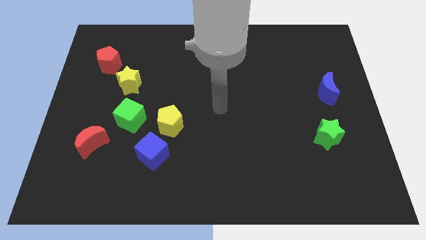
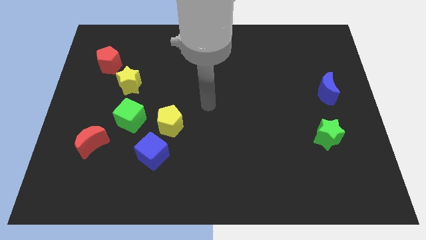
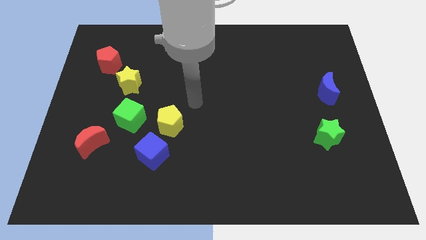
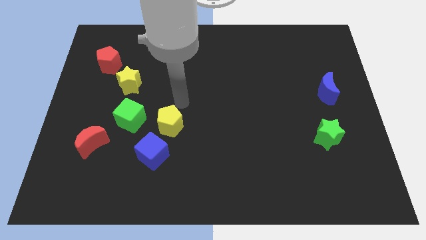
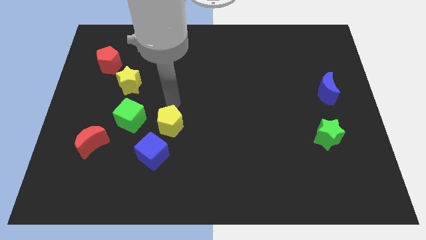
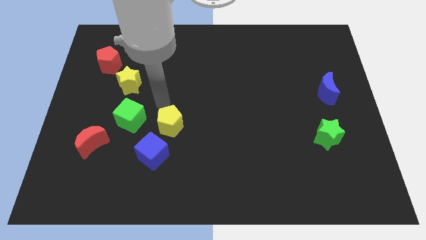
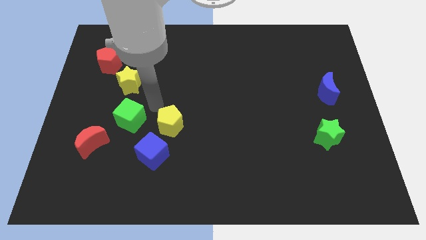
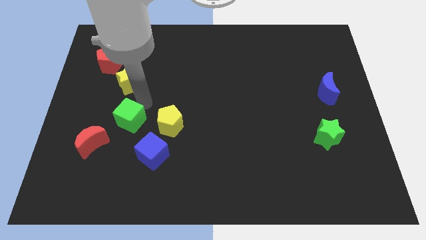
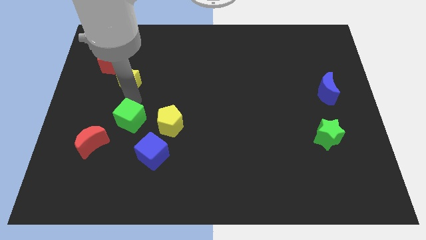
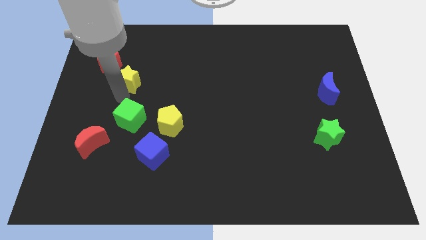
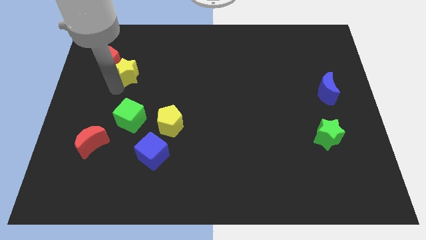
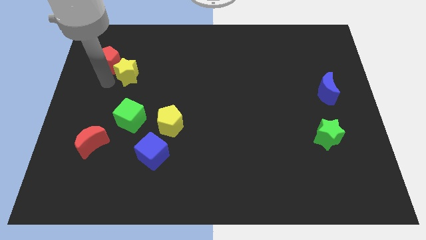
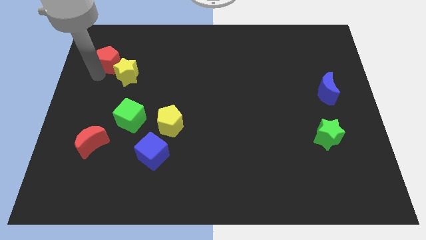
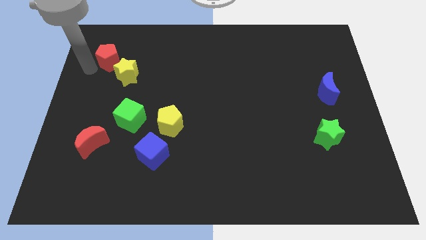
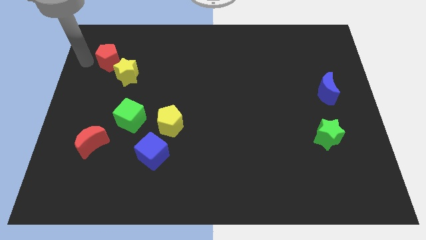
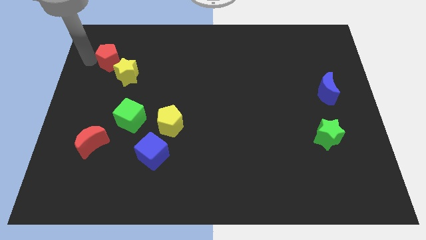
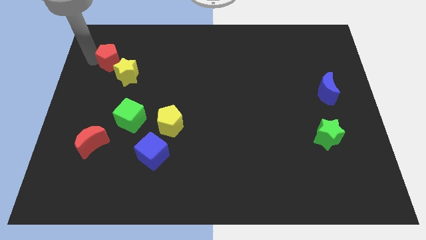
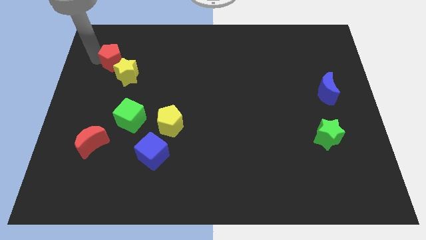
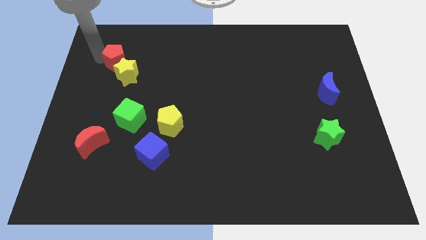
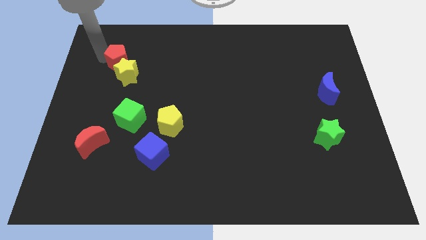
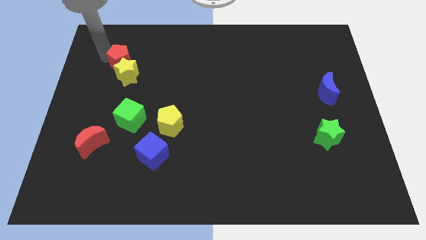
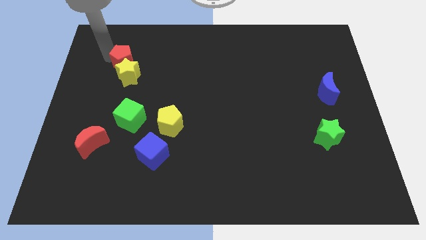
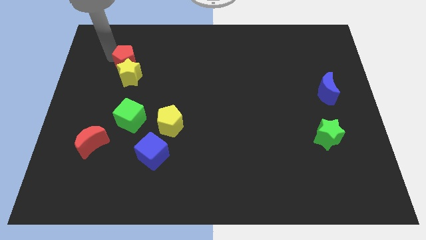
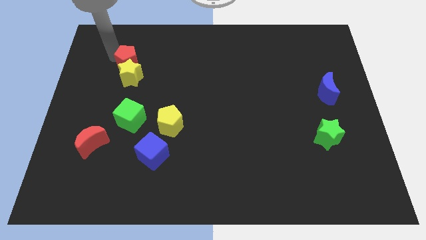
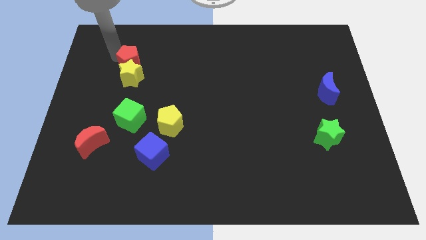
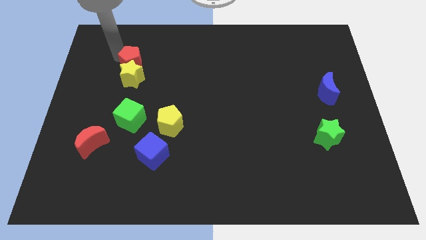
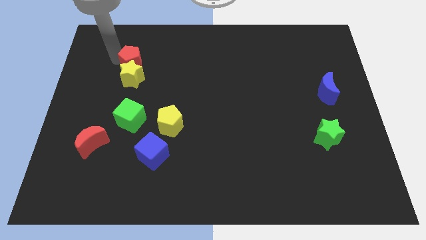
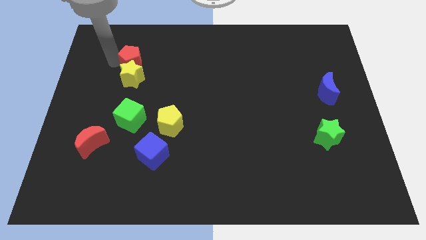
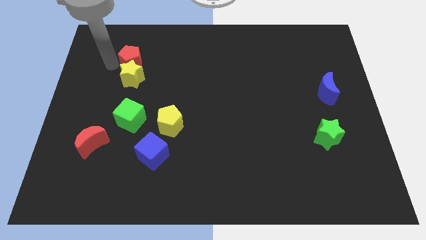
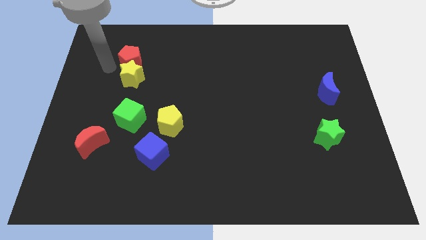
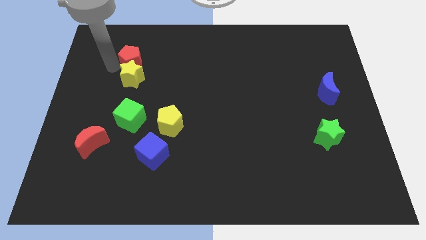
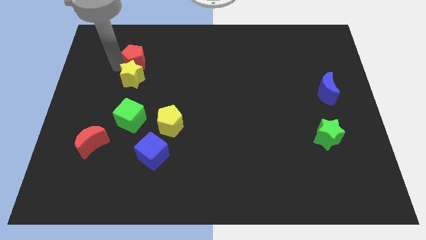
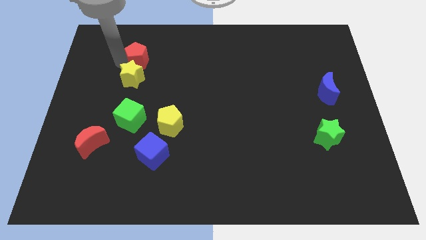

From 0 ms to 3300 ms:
slightly move the red pentagon right

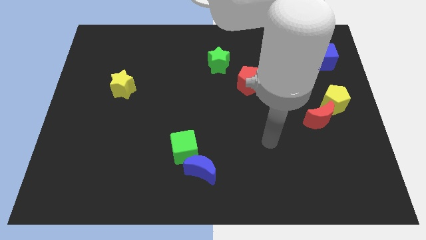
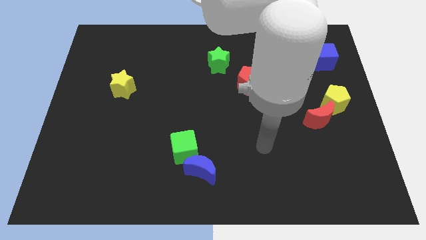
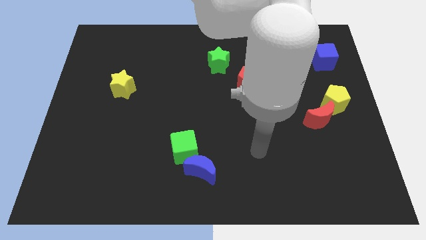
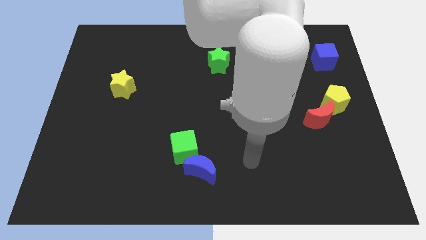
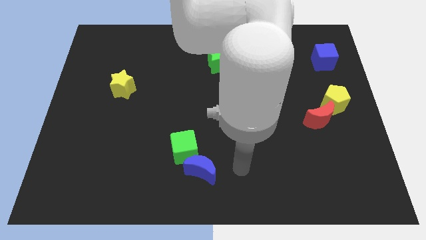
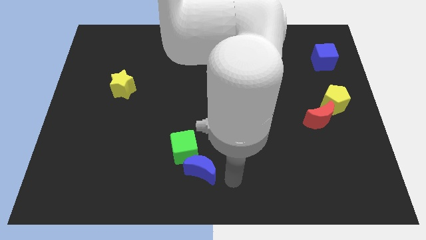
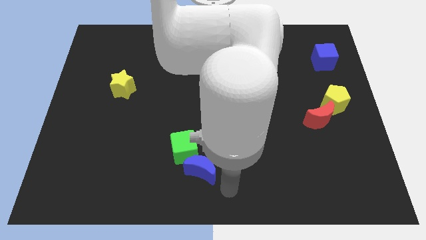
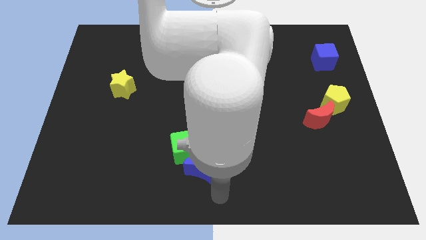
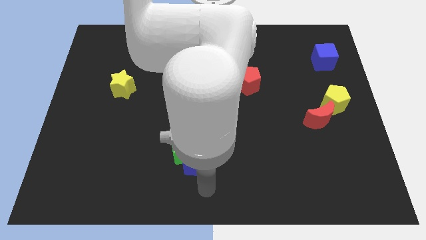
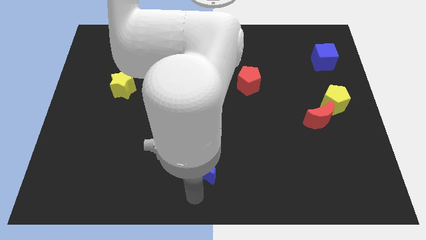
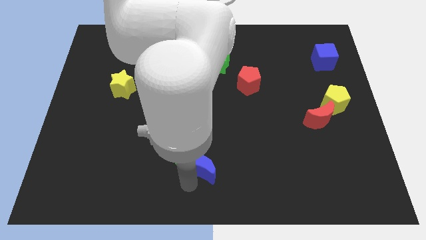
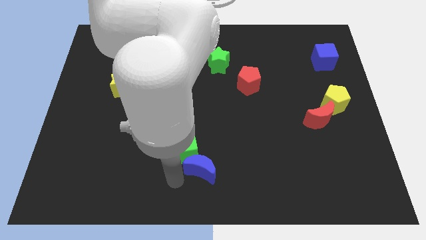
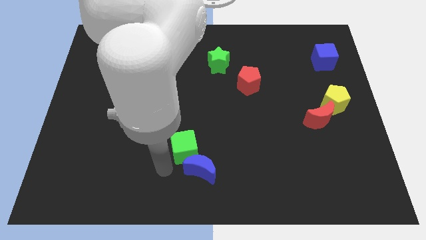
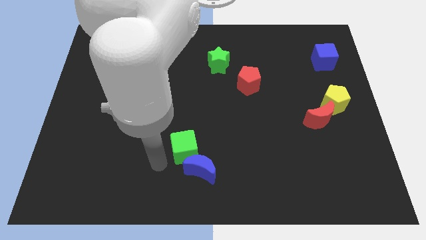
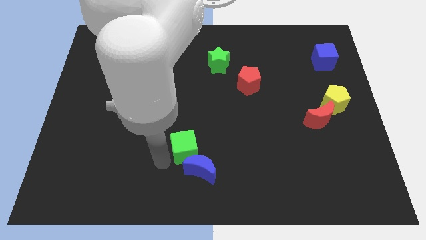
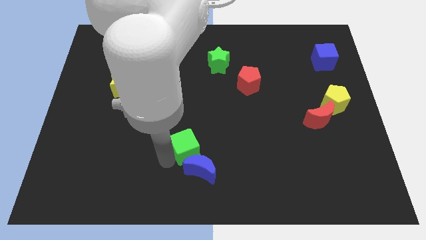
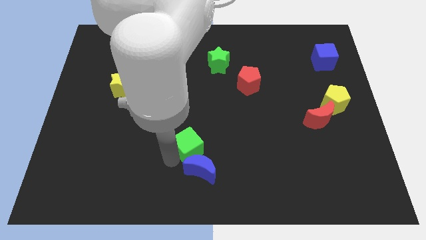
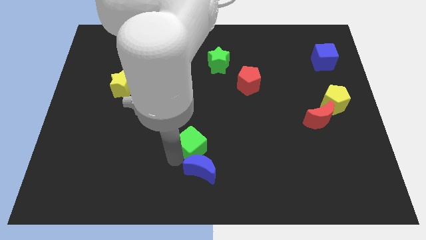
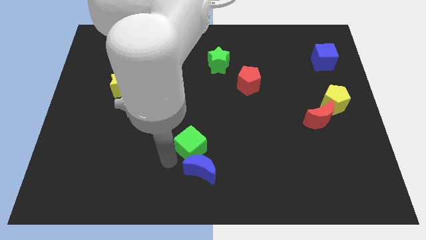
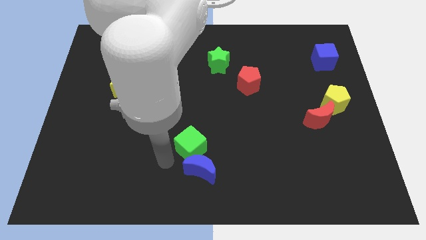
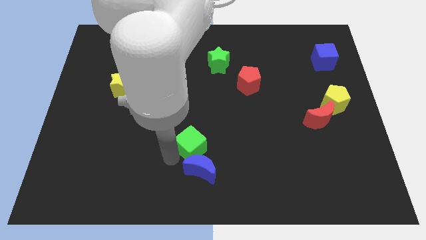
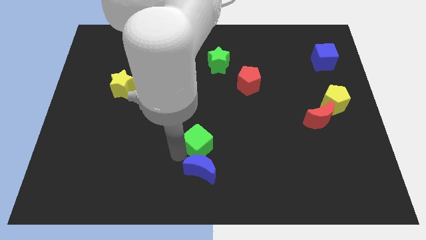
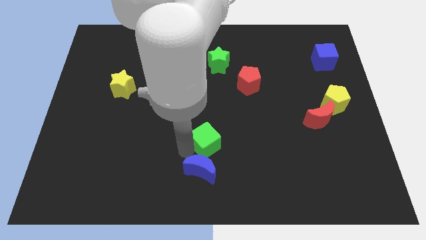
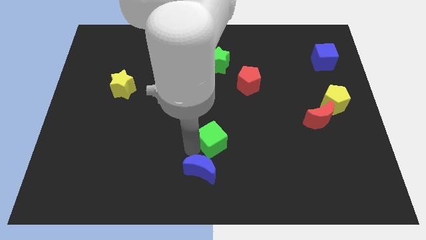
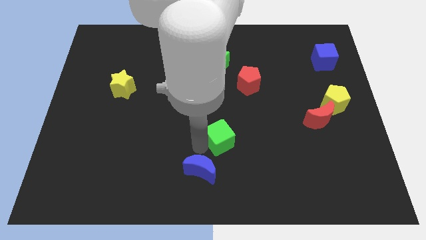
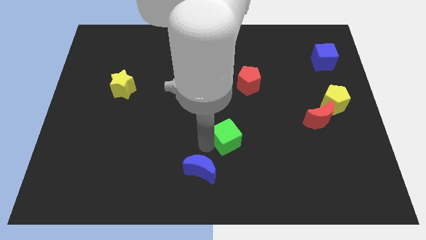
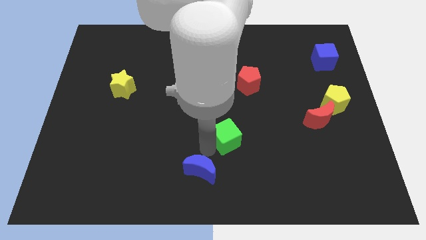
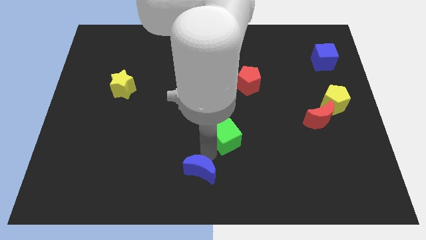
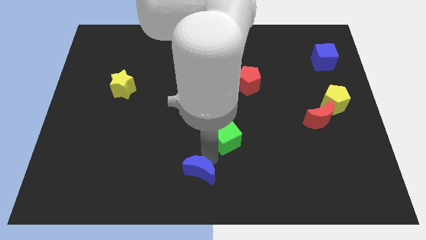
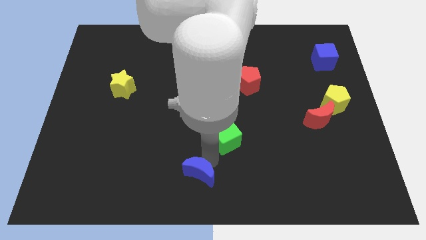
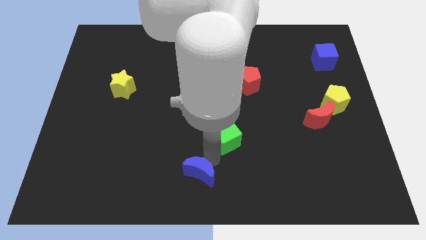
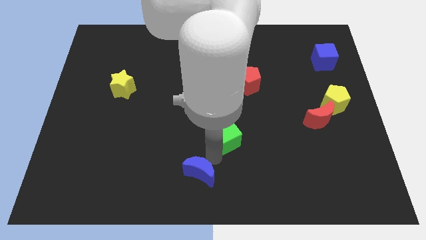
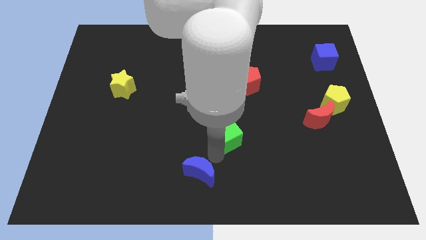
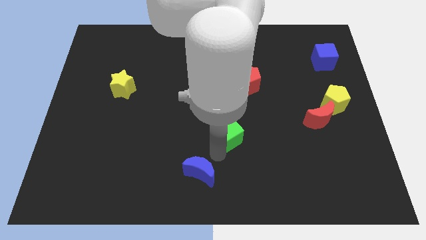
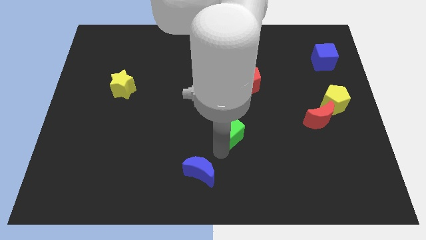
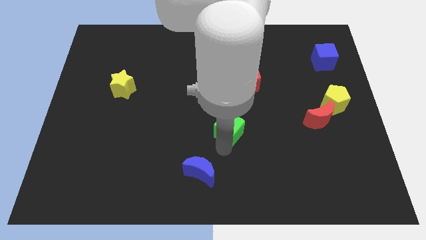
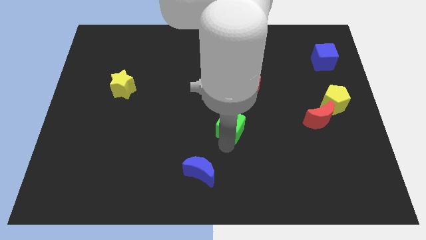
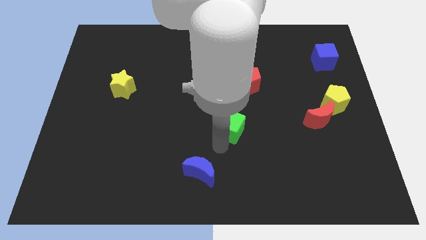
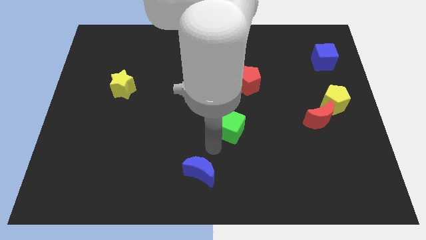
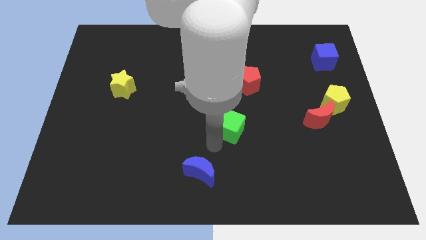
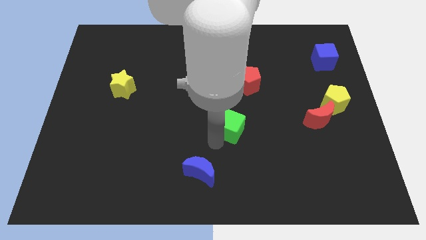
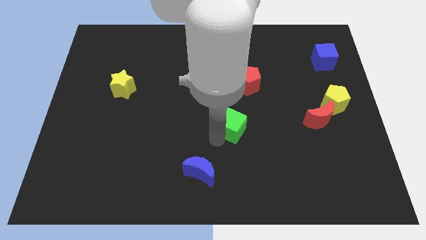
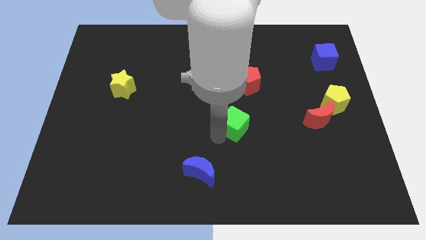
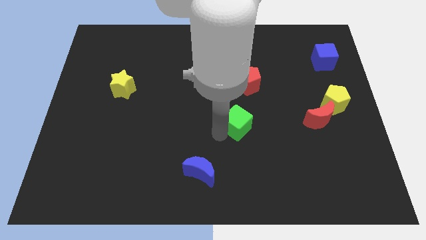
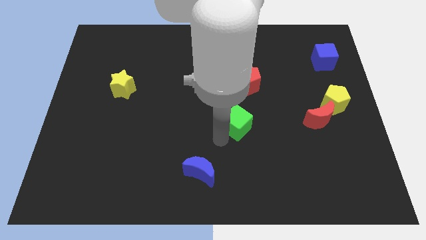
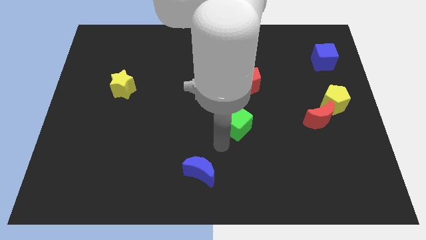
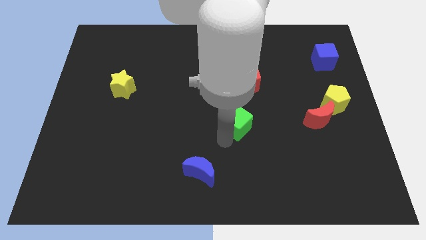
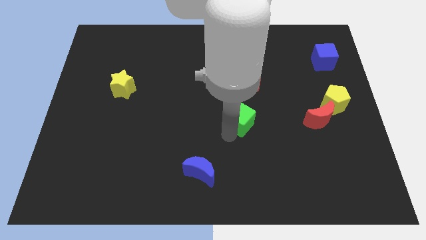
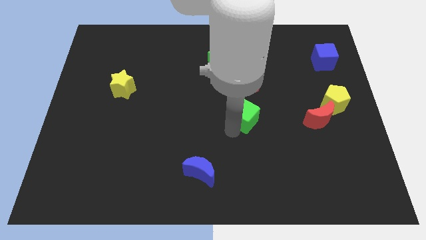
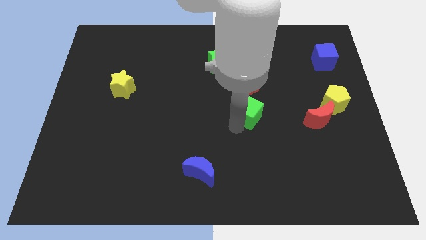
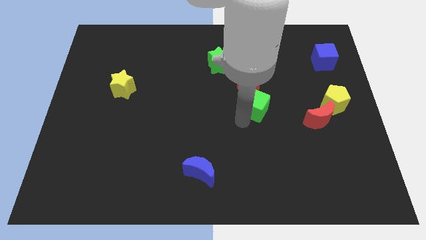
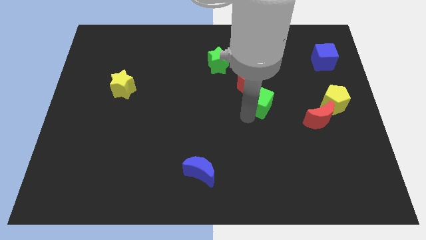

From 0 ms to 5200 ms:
push the green cube up and then right
